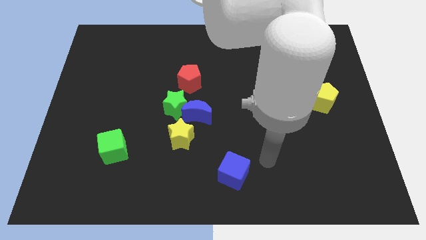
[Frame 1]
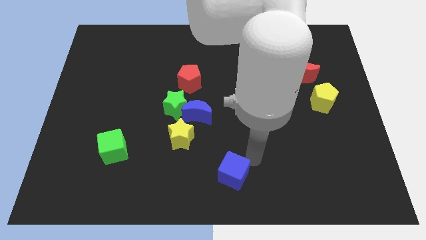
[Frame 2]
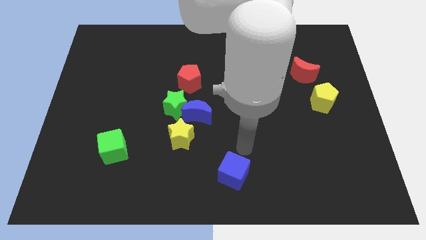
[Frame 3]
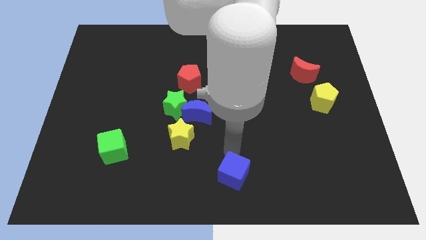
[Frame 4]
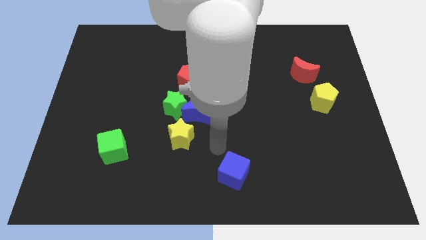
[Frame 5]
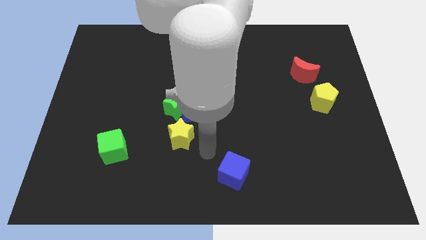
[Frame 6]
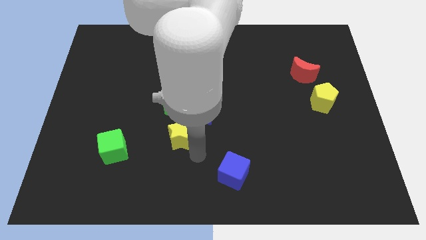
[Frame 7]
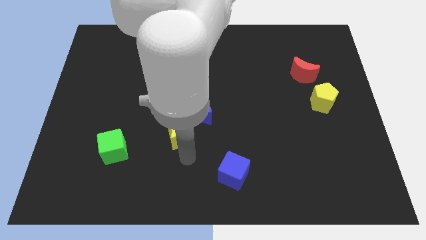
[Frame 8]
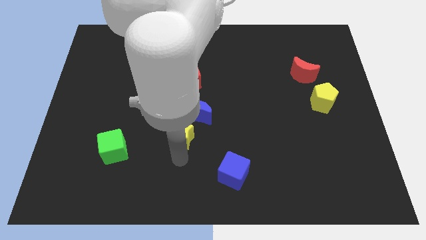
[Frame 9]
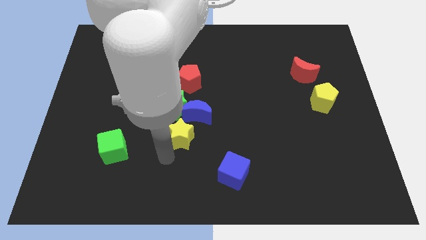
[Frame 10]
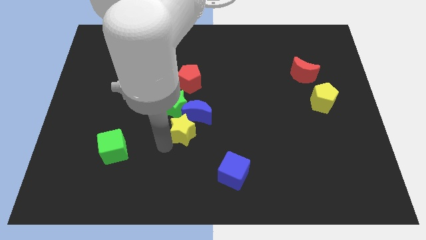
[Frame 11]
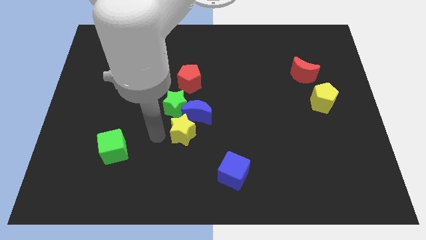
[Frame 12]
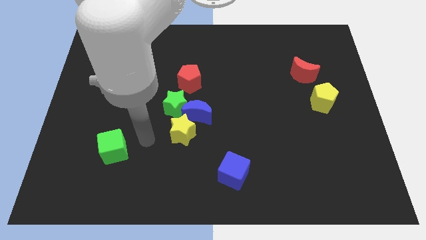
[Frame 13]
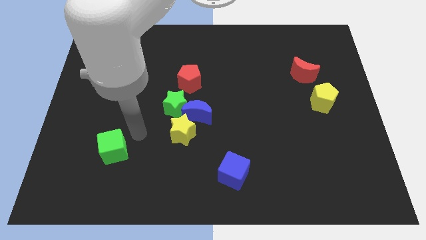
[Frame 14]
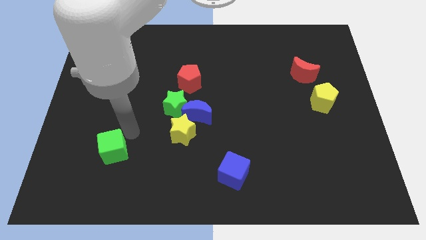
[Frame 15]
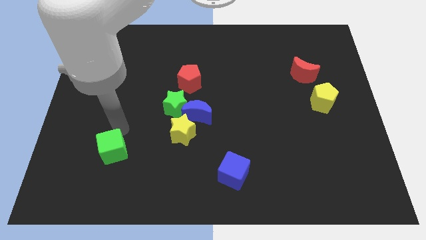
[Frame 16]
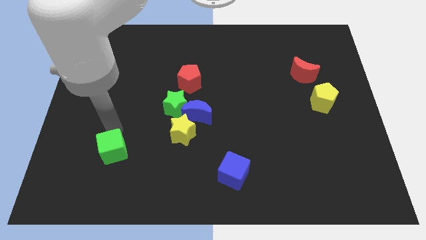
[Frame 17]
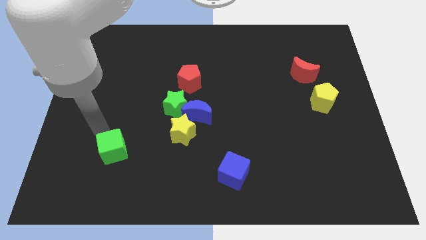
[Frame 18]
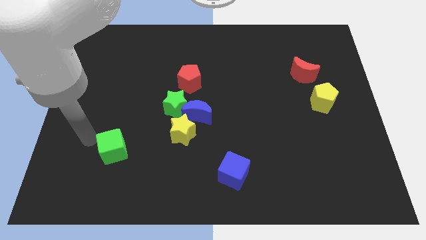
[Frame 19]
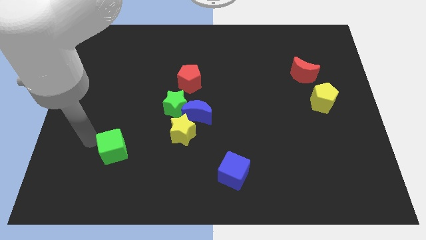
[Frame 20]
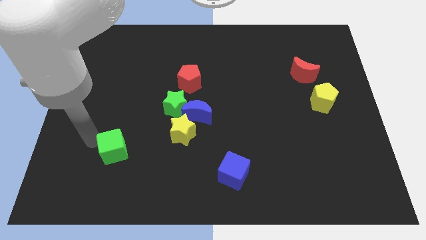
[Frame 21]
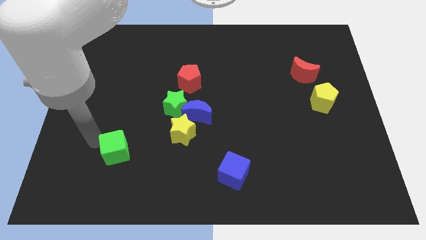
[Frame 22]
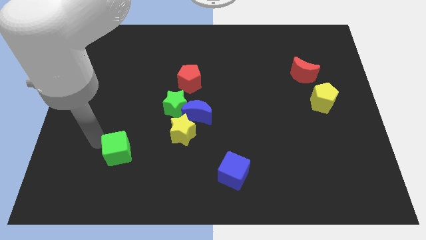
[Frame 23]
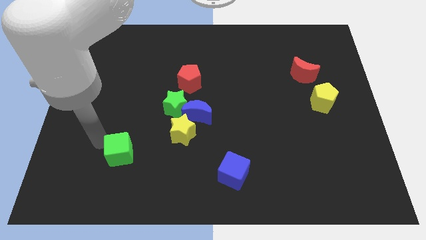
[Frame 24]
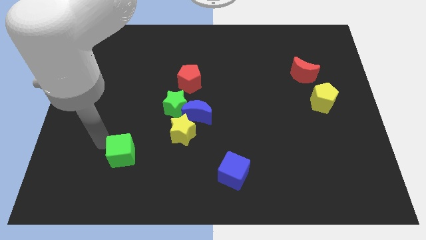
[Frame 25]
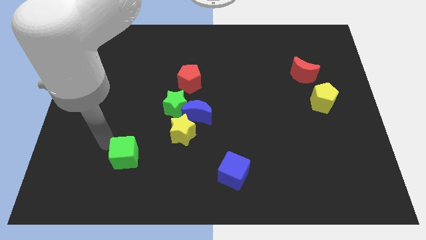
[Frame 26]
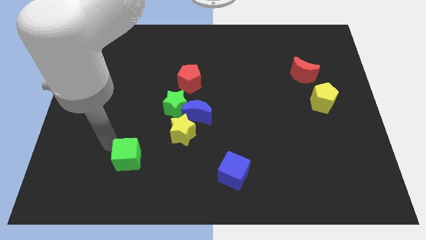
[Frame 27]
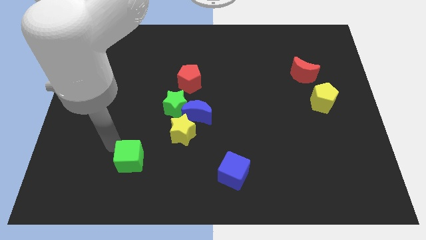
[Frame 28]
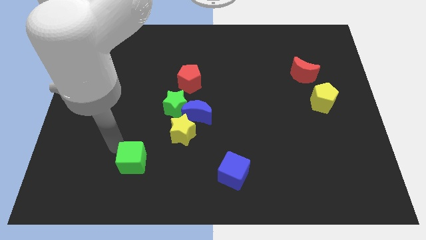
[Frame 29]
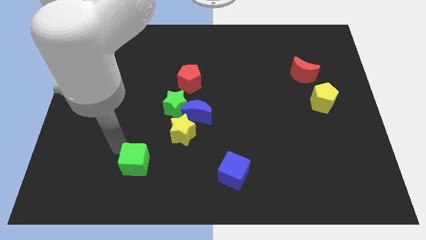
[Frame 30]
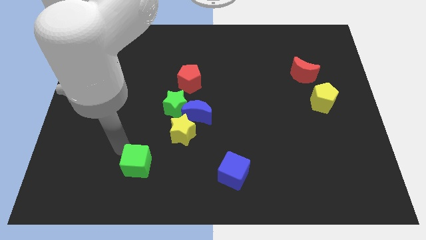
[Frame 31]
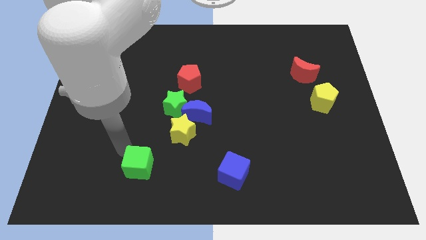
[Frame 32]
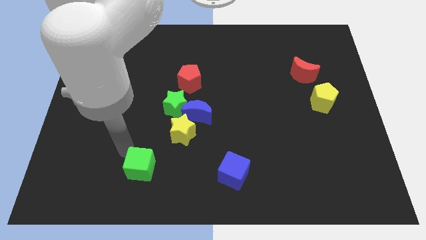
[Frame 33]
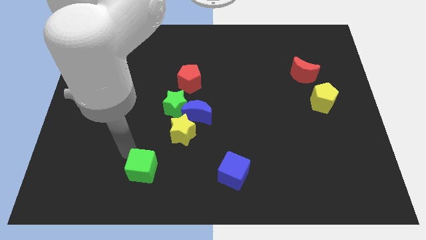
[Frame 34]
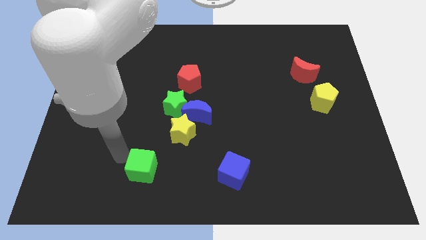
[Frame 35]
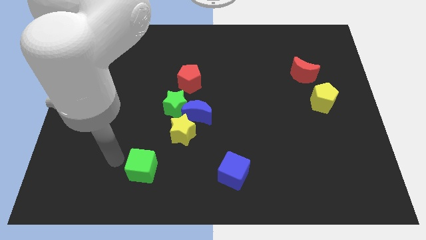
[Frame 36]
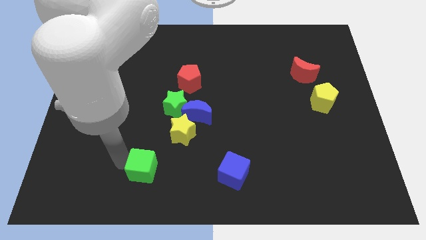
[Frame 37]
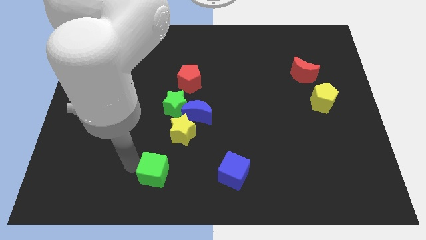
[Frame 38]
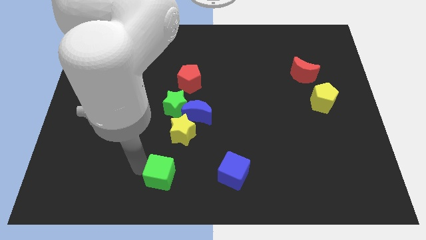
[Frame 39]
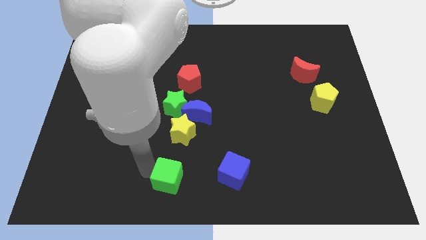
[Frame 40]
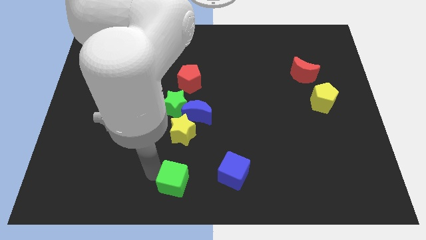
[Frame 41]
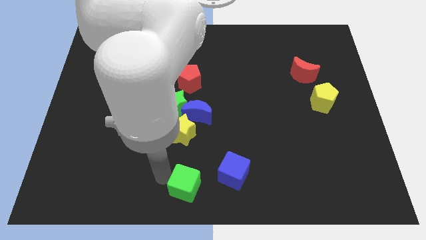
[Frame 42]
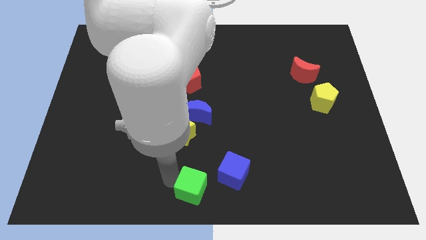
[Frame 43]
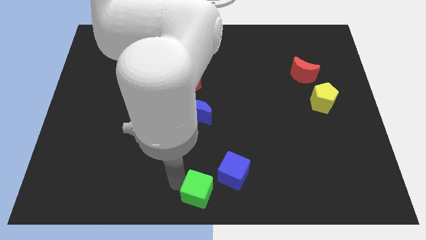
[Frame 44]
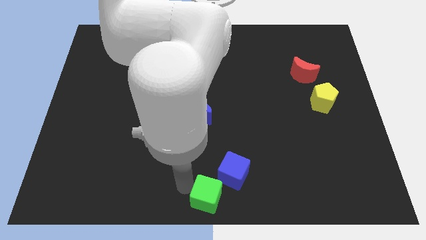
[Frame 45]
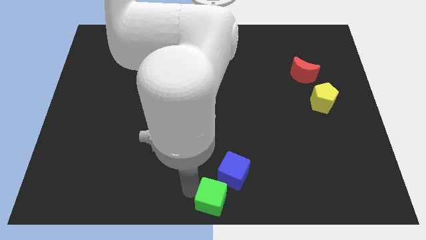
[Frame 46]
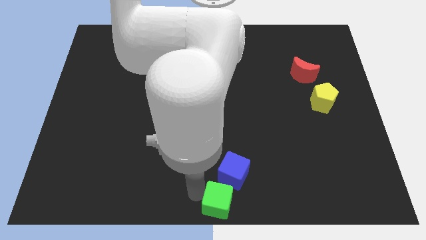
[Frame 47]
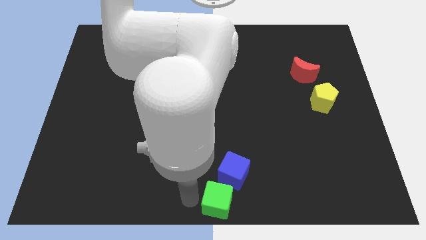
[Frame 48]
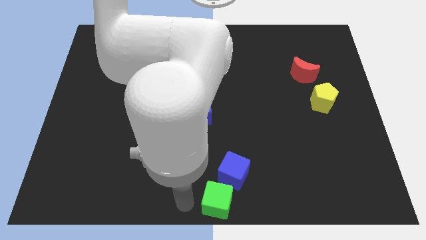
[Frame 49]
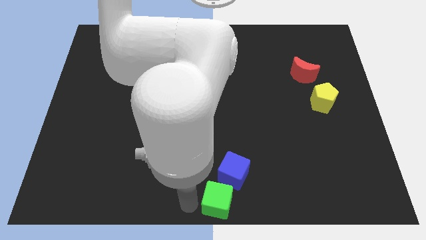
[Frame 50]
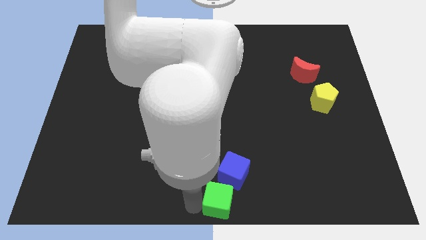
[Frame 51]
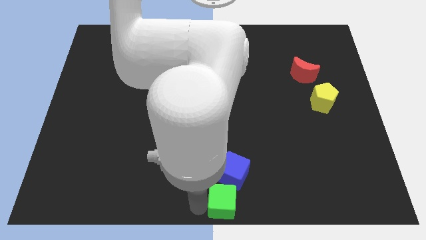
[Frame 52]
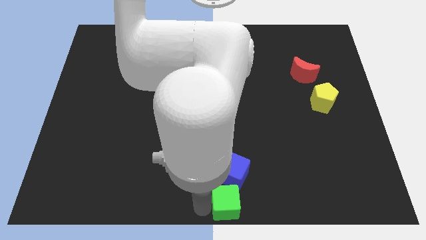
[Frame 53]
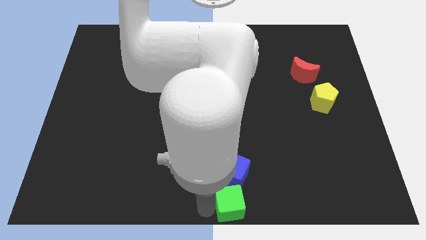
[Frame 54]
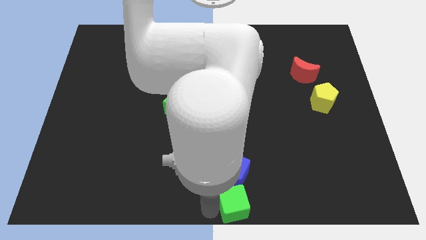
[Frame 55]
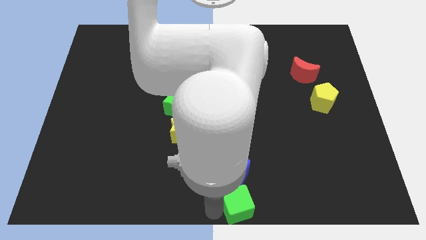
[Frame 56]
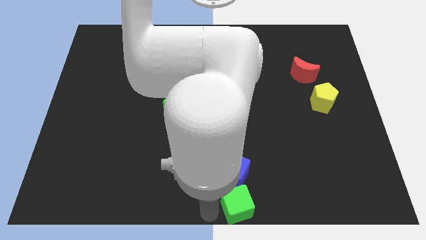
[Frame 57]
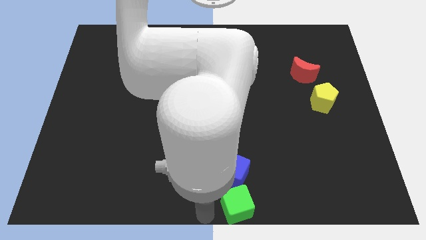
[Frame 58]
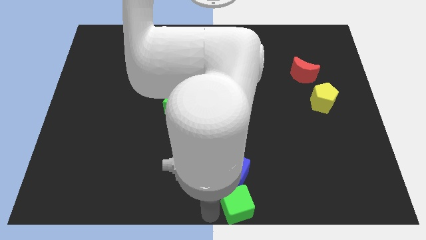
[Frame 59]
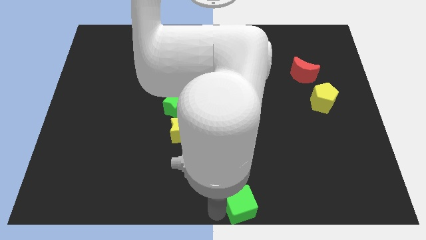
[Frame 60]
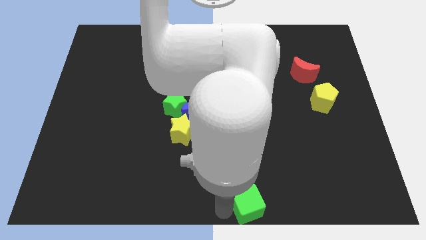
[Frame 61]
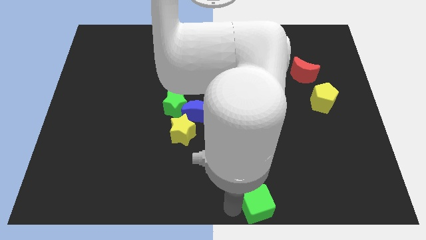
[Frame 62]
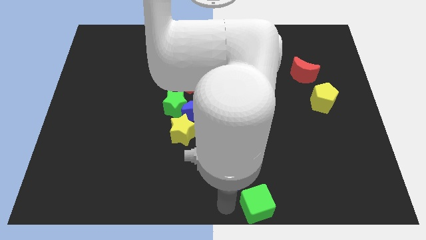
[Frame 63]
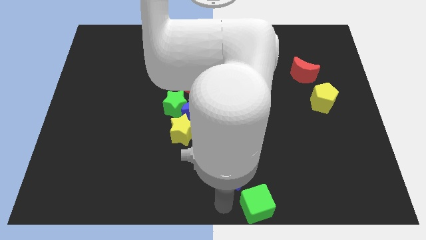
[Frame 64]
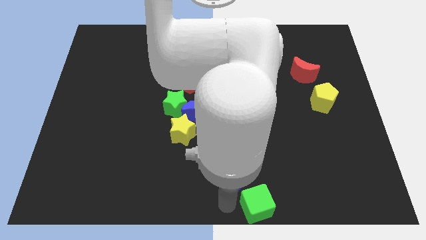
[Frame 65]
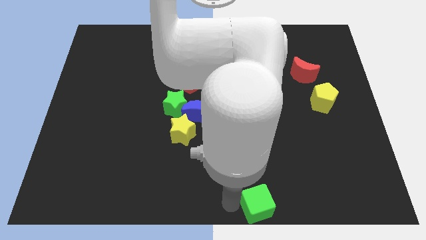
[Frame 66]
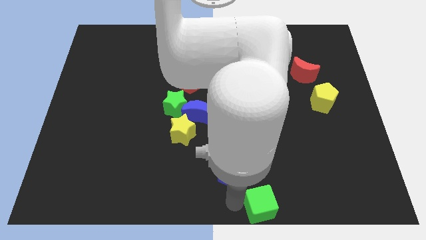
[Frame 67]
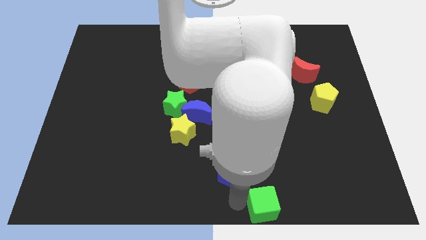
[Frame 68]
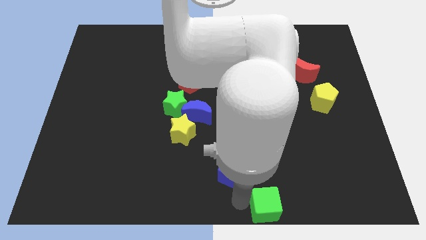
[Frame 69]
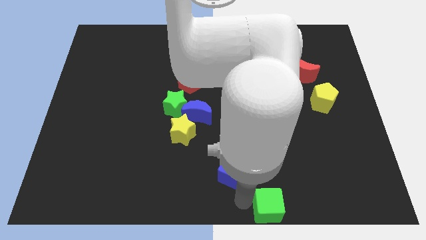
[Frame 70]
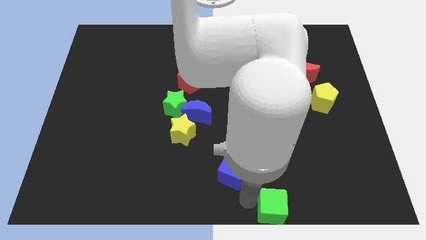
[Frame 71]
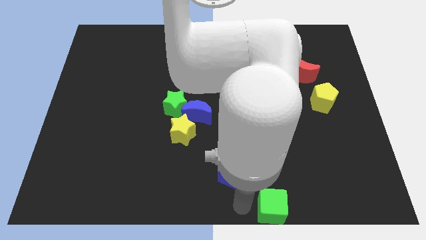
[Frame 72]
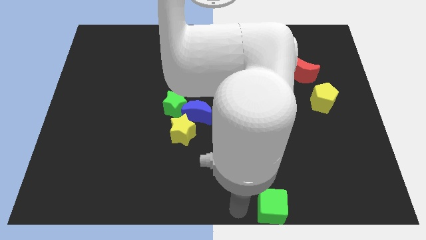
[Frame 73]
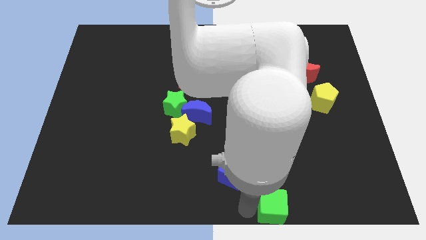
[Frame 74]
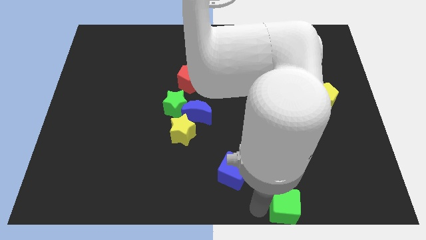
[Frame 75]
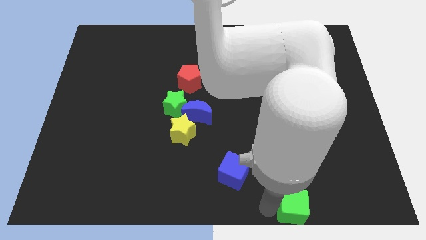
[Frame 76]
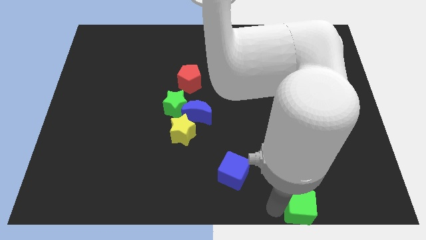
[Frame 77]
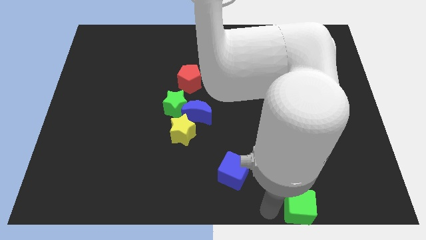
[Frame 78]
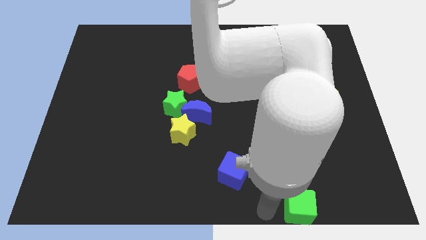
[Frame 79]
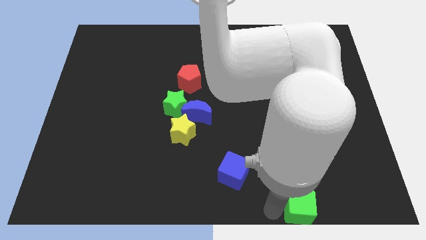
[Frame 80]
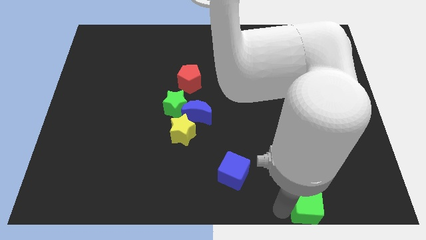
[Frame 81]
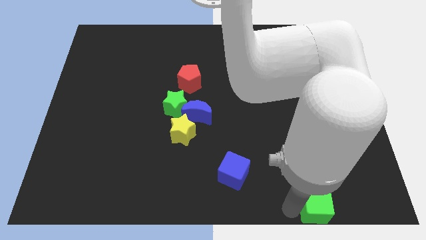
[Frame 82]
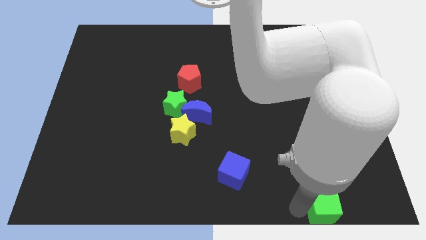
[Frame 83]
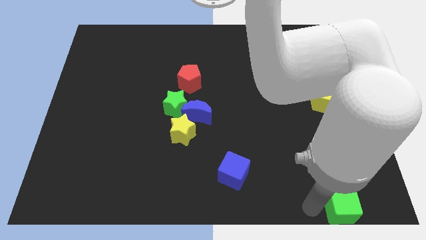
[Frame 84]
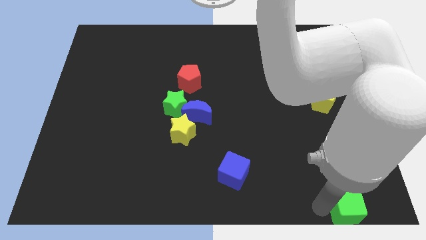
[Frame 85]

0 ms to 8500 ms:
slide the green cube to the bottom right
